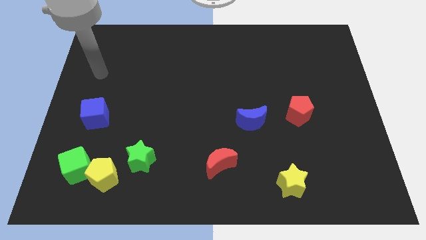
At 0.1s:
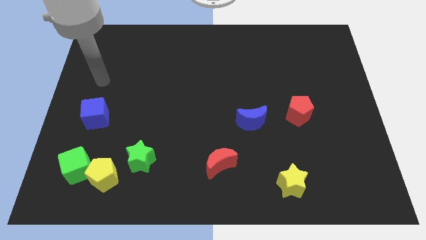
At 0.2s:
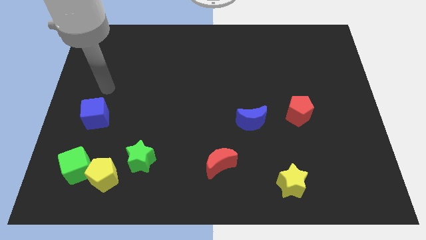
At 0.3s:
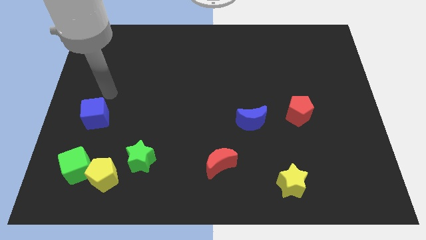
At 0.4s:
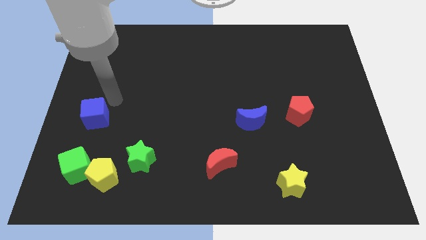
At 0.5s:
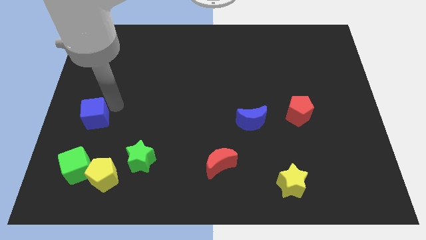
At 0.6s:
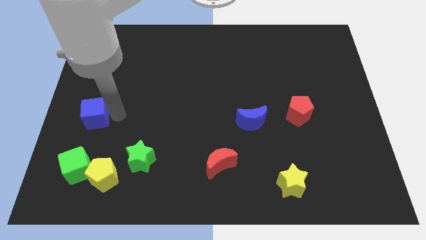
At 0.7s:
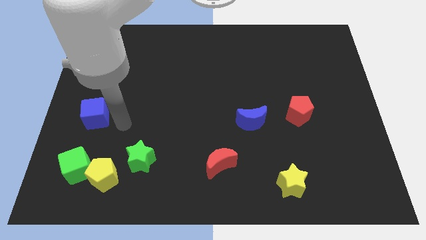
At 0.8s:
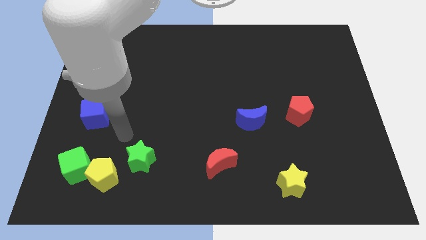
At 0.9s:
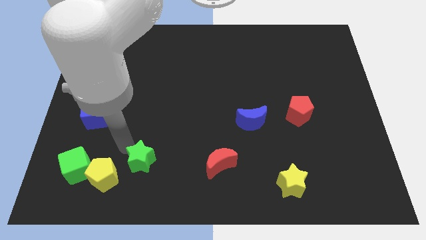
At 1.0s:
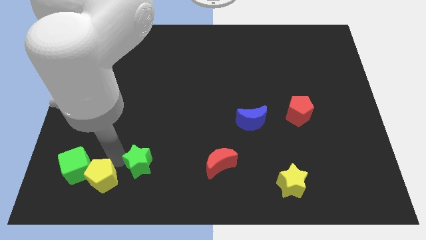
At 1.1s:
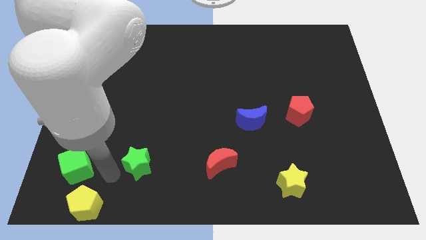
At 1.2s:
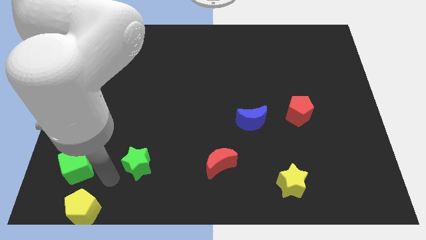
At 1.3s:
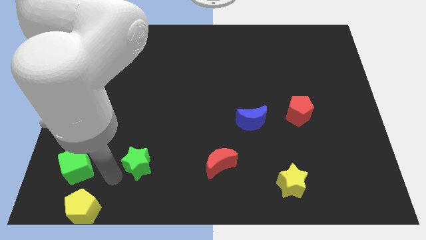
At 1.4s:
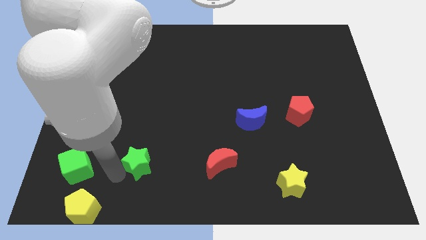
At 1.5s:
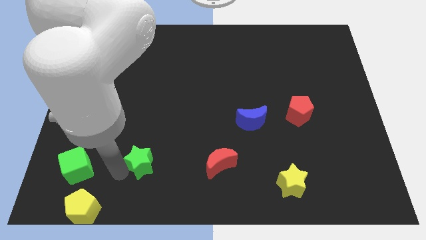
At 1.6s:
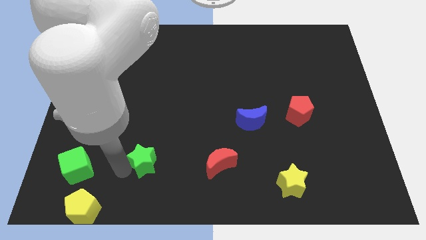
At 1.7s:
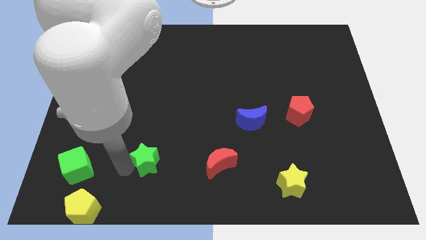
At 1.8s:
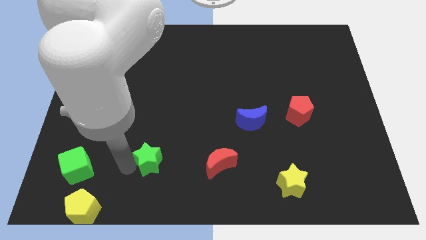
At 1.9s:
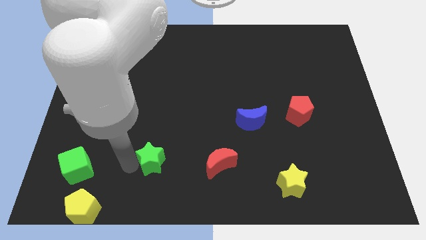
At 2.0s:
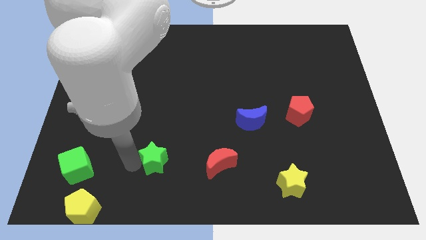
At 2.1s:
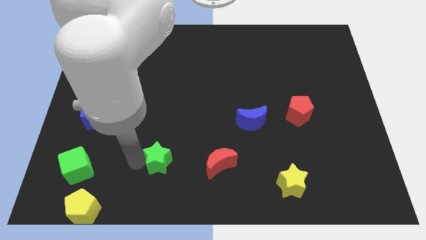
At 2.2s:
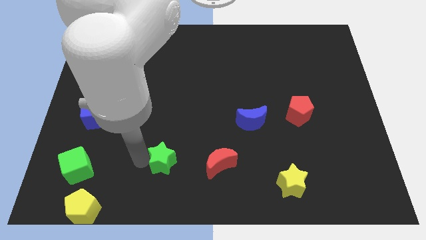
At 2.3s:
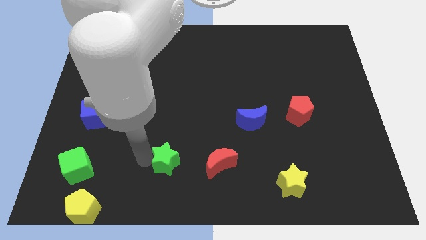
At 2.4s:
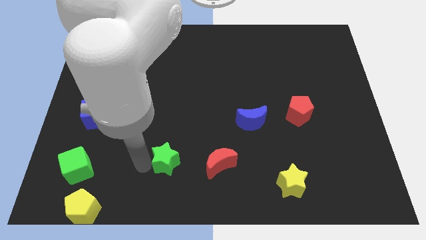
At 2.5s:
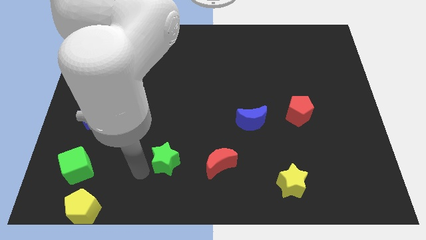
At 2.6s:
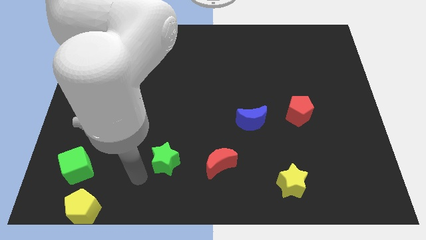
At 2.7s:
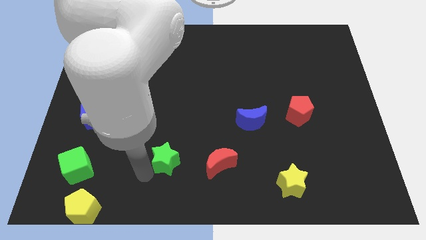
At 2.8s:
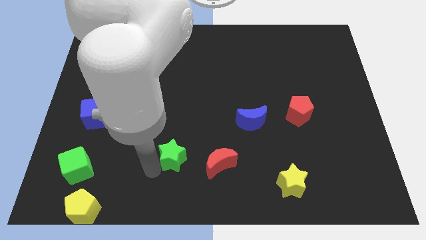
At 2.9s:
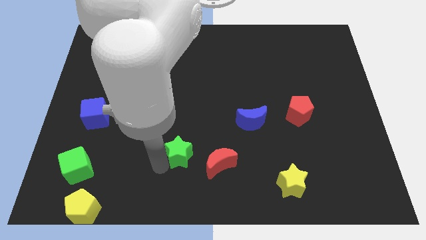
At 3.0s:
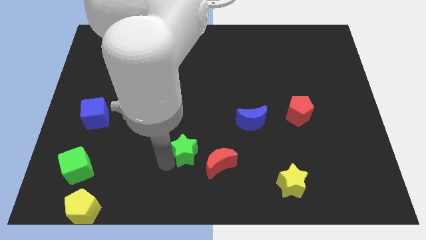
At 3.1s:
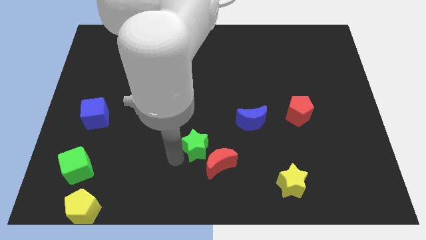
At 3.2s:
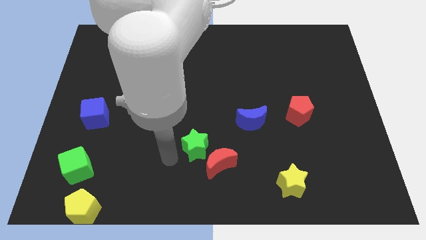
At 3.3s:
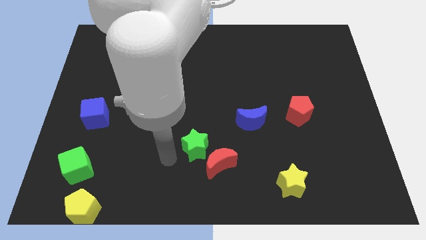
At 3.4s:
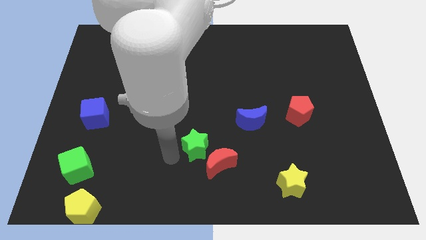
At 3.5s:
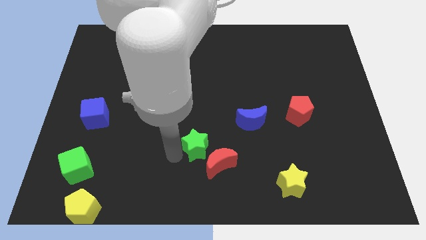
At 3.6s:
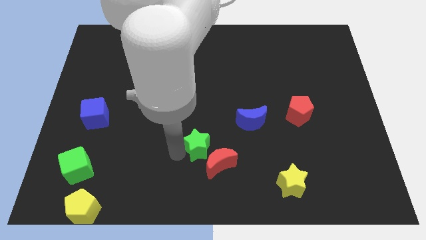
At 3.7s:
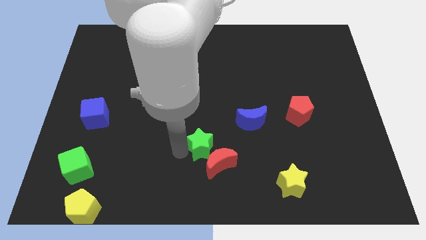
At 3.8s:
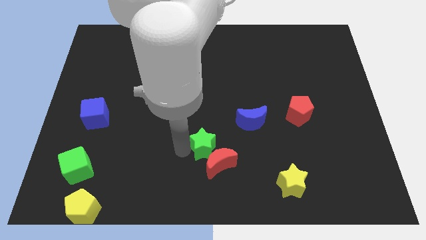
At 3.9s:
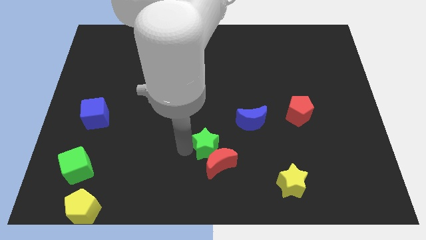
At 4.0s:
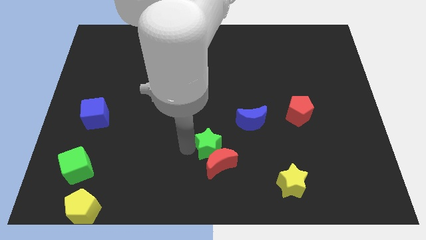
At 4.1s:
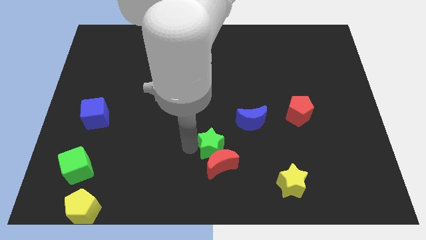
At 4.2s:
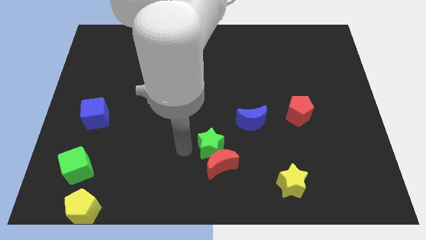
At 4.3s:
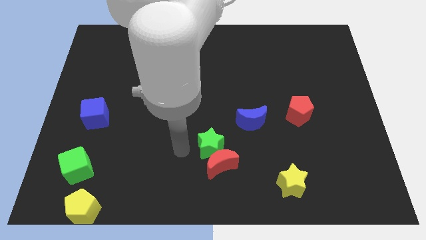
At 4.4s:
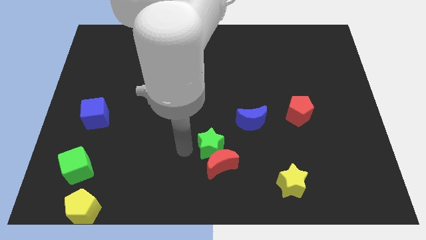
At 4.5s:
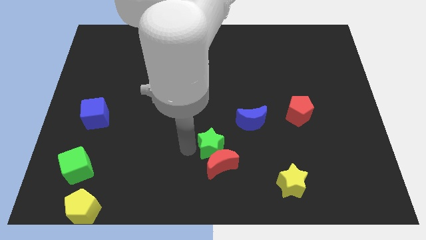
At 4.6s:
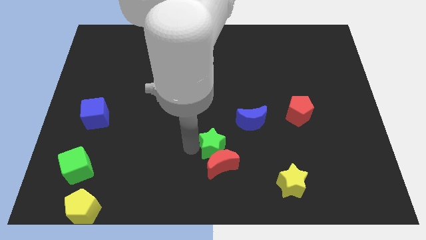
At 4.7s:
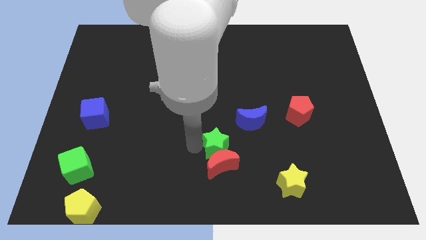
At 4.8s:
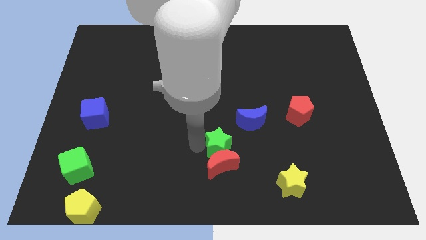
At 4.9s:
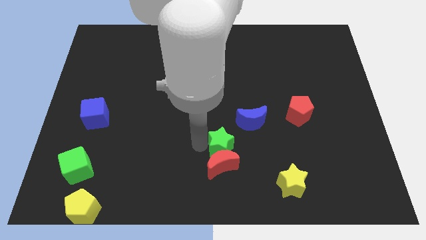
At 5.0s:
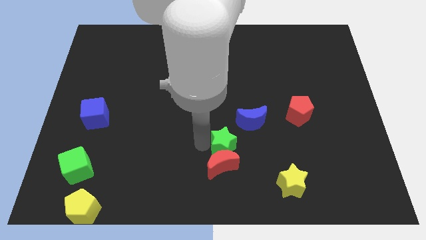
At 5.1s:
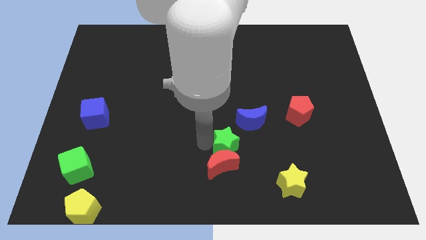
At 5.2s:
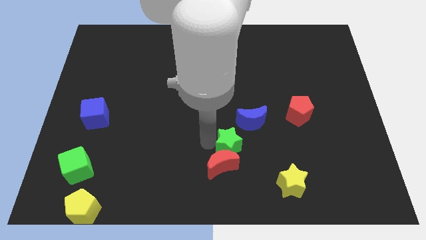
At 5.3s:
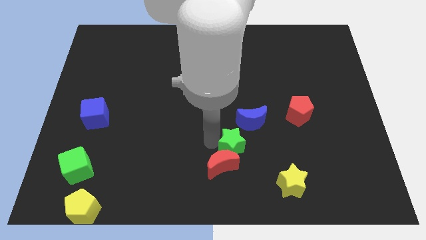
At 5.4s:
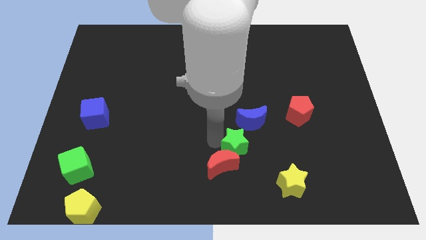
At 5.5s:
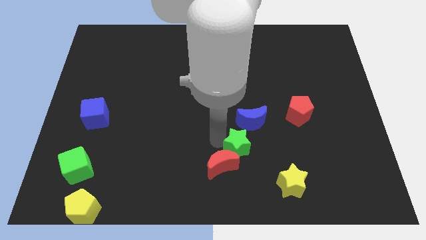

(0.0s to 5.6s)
slide the green star right

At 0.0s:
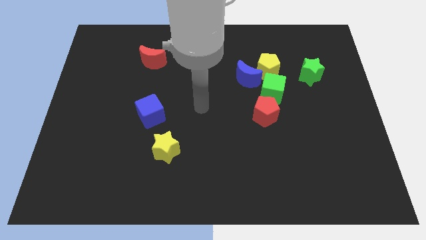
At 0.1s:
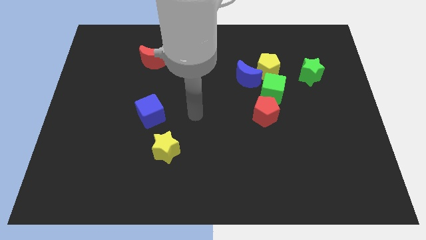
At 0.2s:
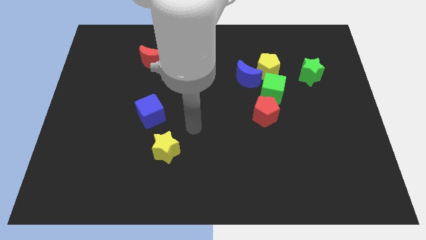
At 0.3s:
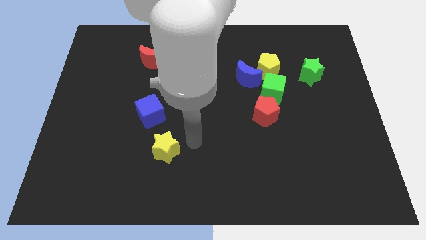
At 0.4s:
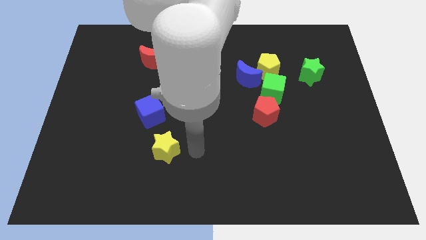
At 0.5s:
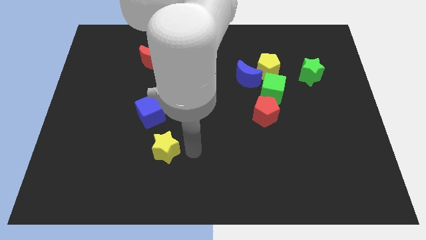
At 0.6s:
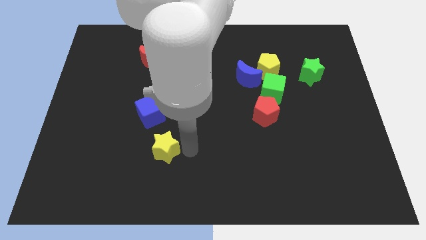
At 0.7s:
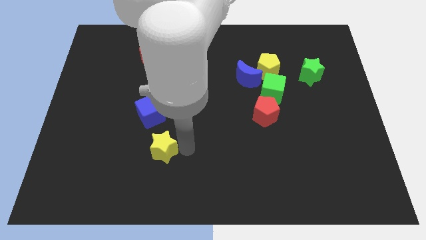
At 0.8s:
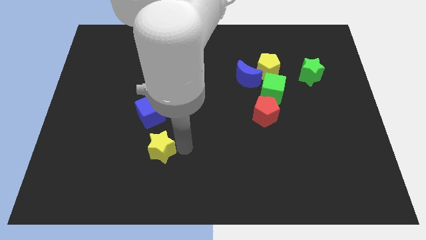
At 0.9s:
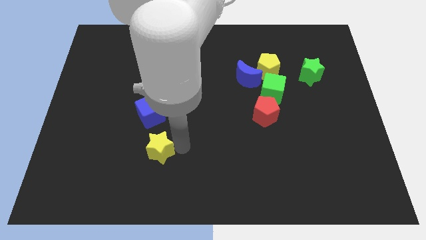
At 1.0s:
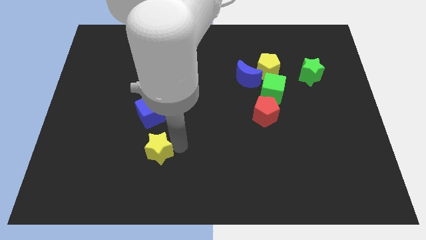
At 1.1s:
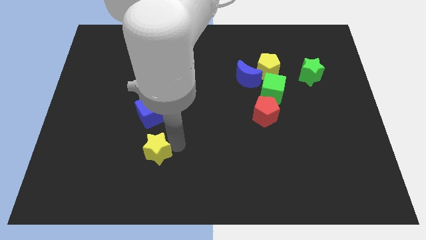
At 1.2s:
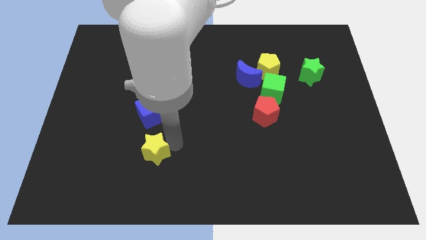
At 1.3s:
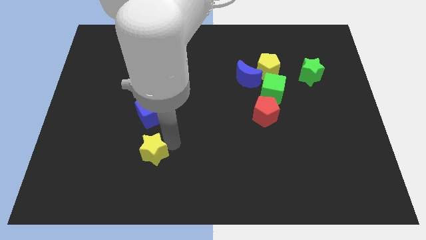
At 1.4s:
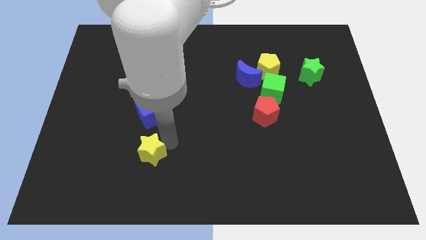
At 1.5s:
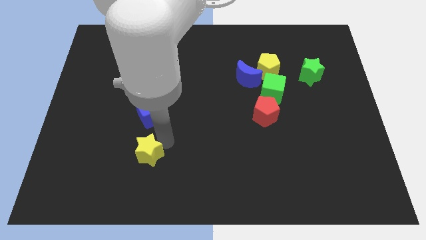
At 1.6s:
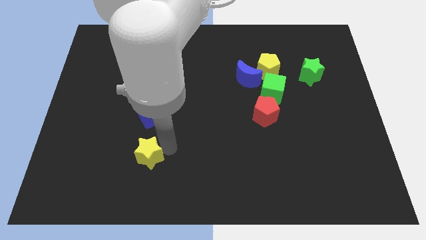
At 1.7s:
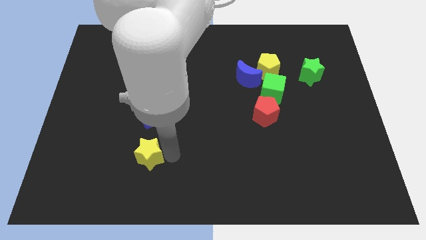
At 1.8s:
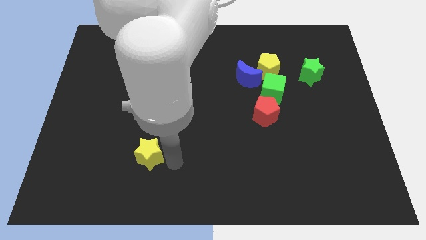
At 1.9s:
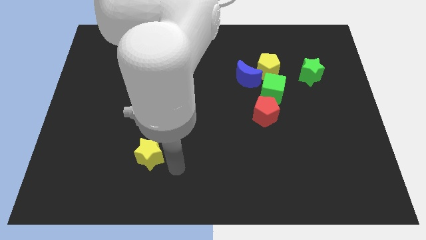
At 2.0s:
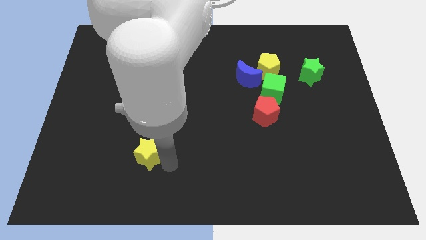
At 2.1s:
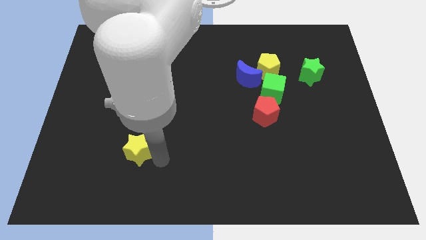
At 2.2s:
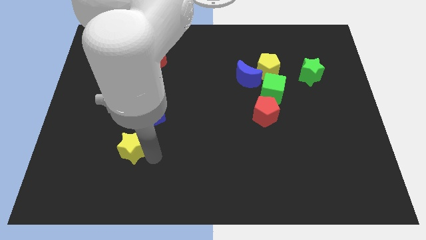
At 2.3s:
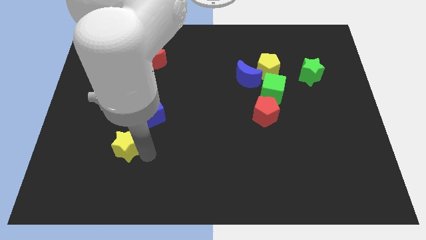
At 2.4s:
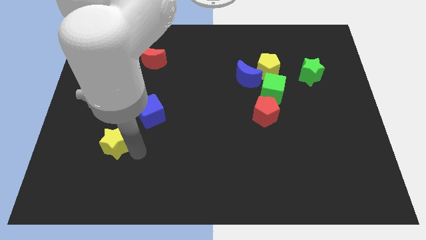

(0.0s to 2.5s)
slightly push the yellow star diagonally up and to the left
